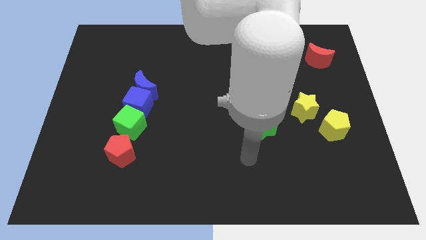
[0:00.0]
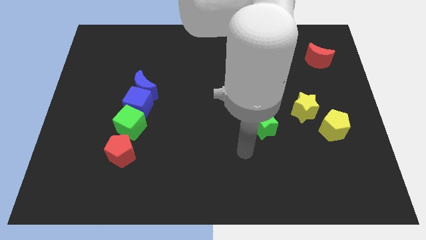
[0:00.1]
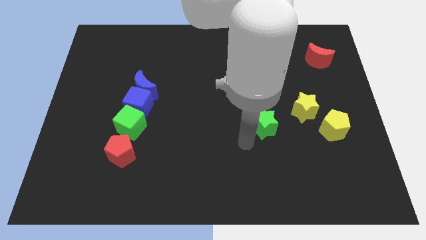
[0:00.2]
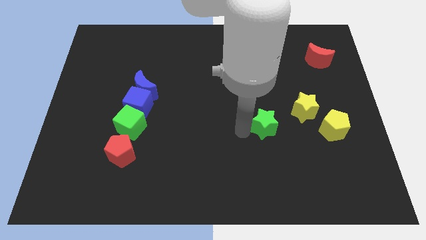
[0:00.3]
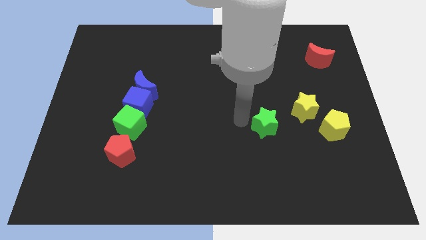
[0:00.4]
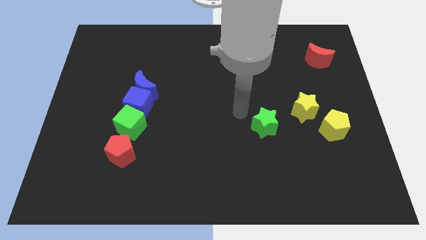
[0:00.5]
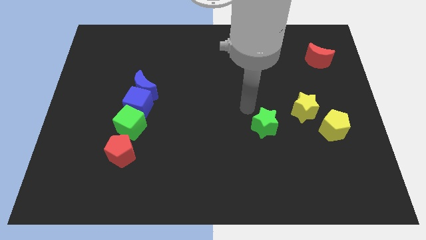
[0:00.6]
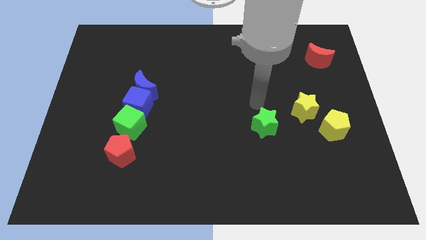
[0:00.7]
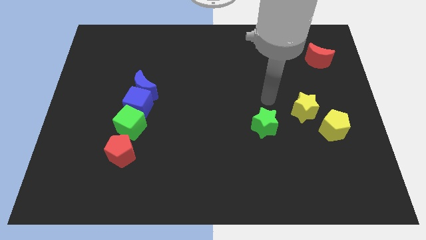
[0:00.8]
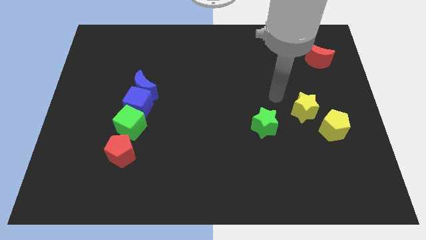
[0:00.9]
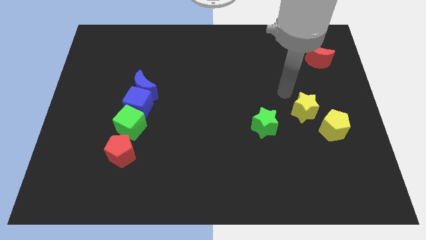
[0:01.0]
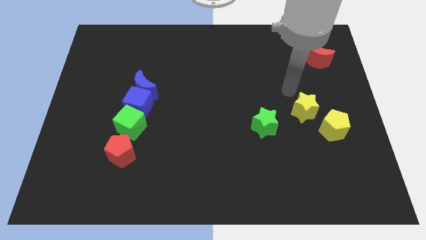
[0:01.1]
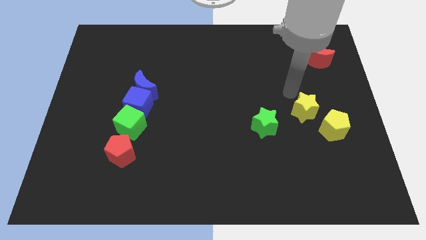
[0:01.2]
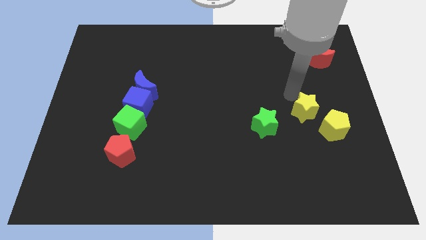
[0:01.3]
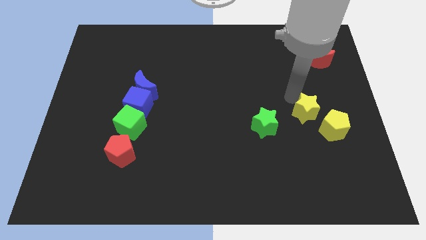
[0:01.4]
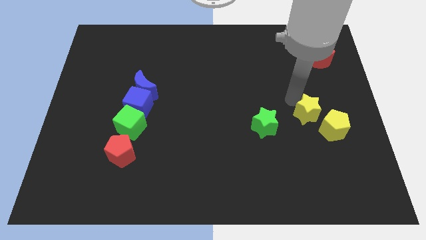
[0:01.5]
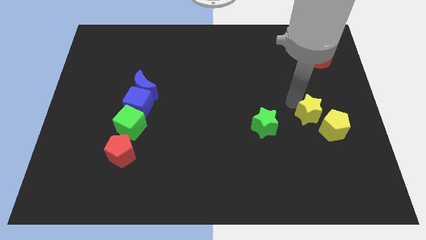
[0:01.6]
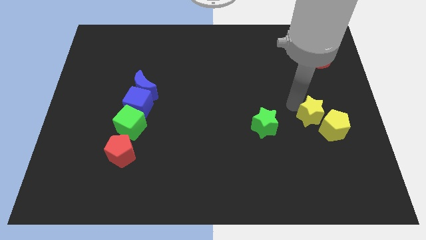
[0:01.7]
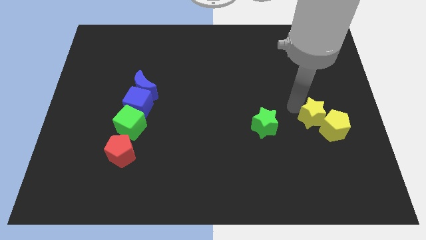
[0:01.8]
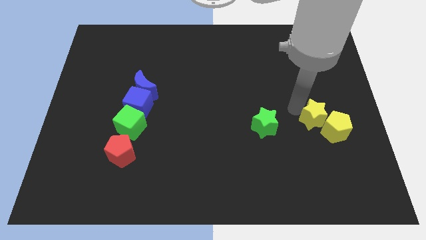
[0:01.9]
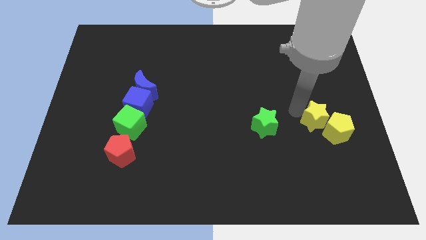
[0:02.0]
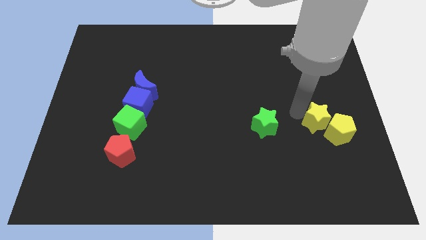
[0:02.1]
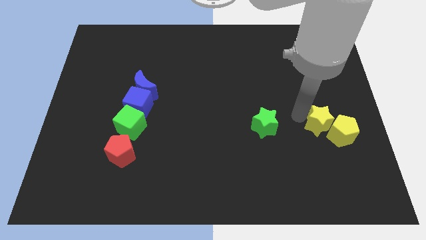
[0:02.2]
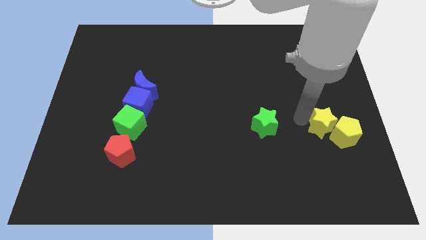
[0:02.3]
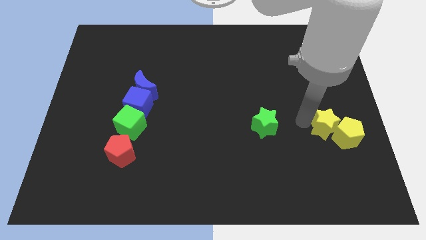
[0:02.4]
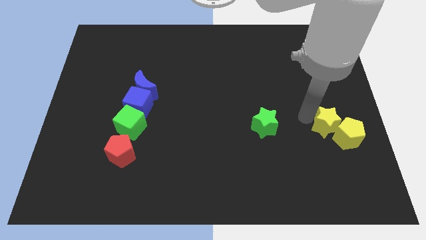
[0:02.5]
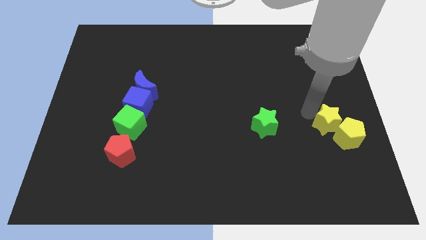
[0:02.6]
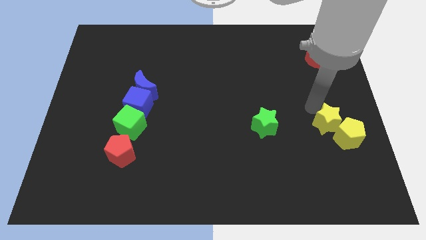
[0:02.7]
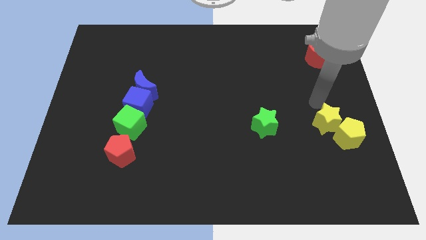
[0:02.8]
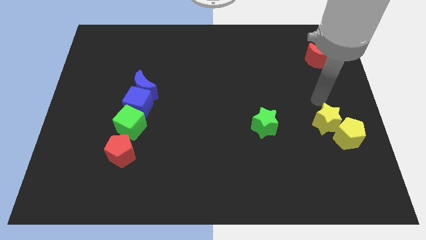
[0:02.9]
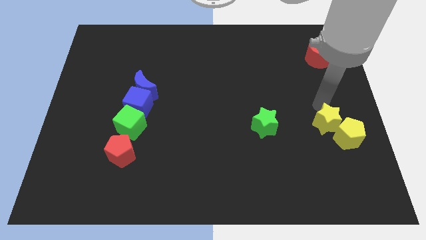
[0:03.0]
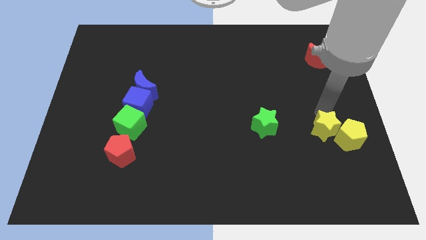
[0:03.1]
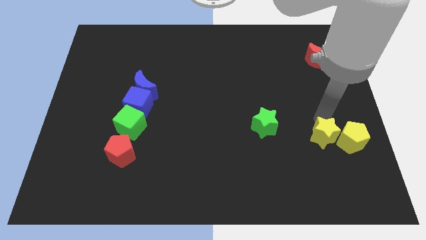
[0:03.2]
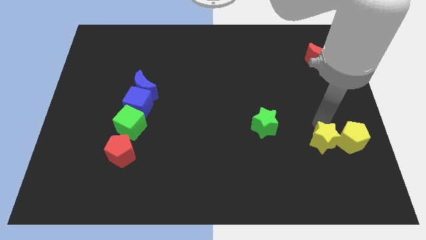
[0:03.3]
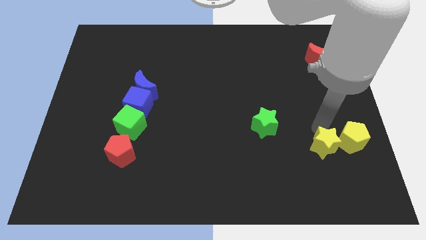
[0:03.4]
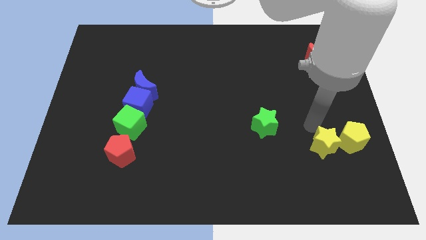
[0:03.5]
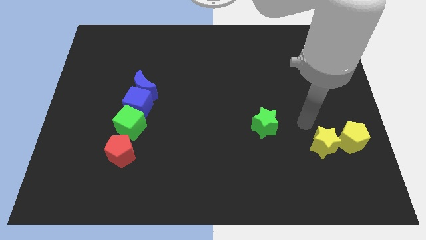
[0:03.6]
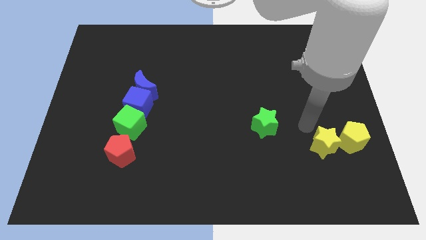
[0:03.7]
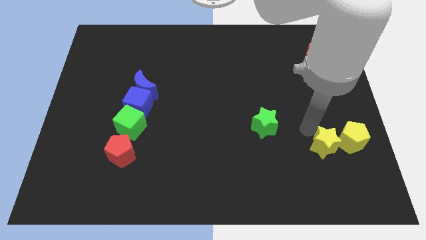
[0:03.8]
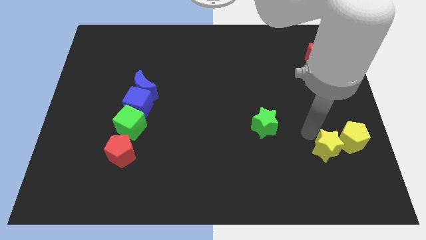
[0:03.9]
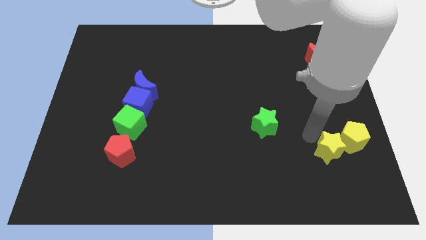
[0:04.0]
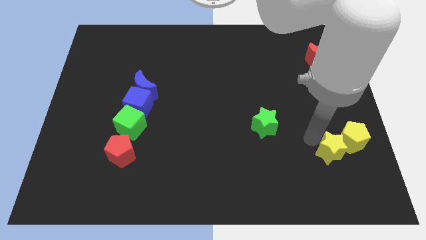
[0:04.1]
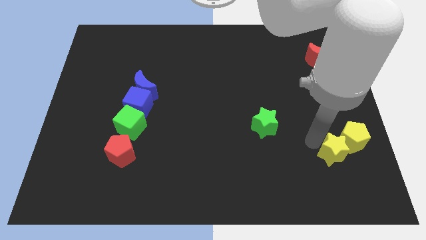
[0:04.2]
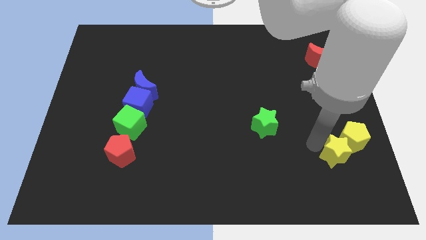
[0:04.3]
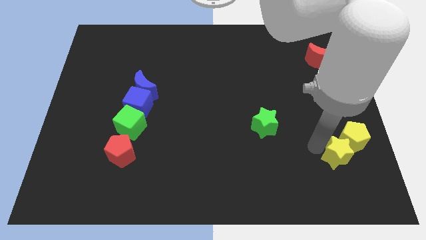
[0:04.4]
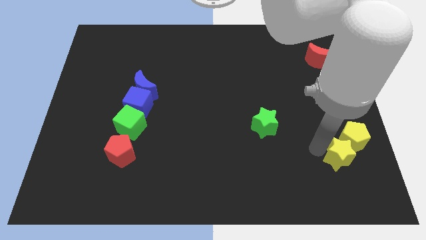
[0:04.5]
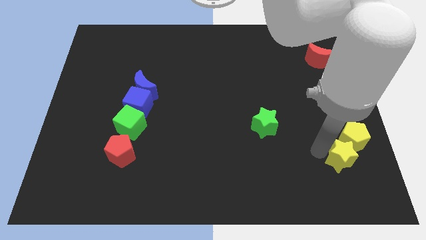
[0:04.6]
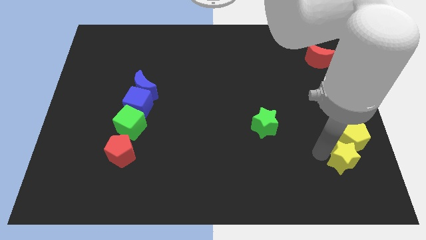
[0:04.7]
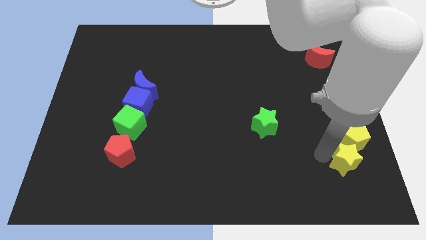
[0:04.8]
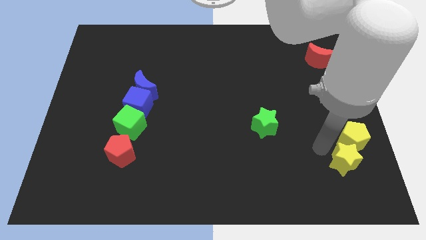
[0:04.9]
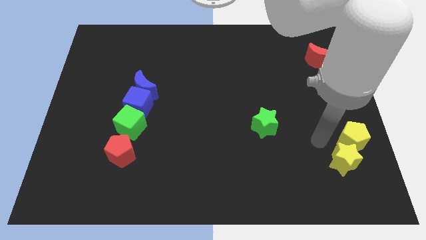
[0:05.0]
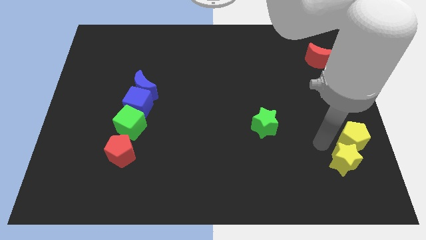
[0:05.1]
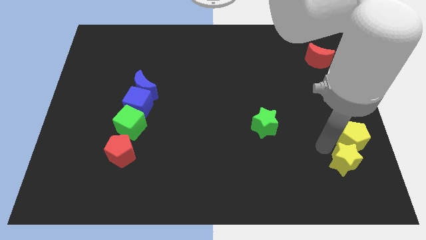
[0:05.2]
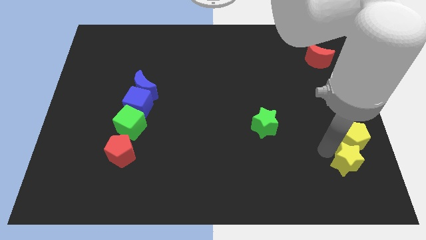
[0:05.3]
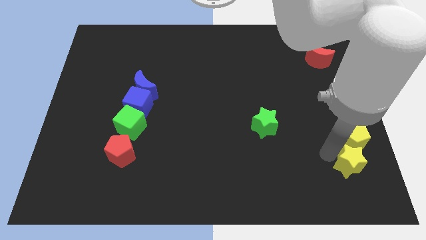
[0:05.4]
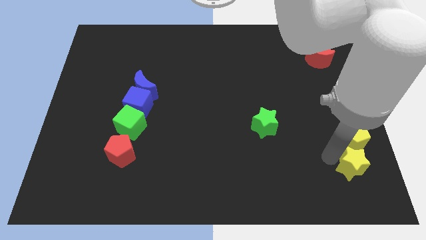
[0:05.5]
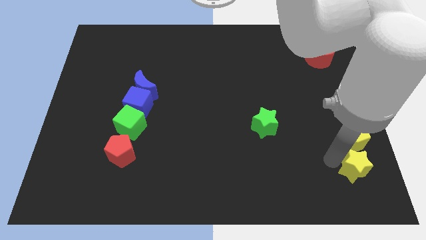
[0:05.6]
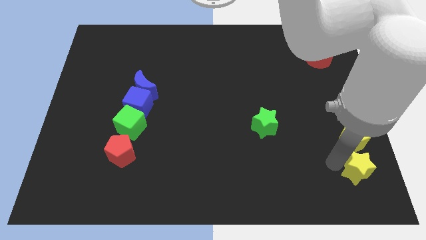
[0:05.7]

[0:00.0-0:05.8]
put the yellow star to the bottom right corner

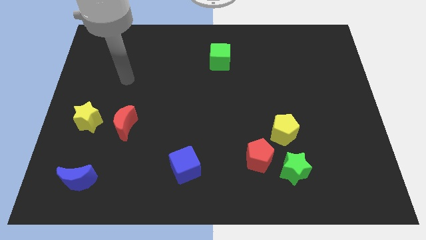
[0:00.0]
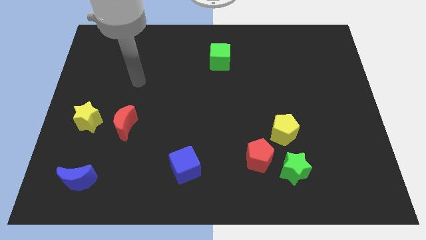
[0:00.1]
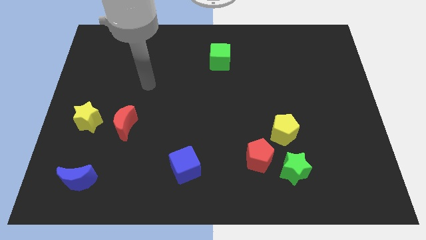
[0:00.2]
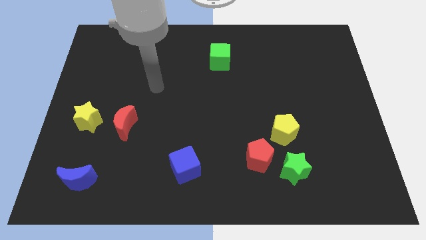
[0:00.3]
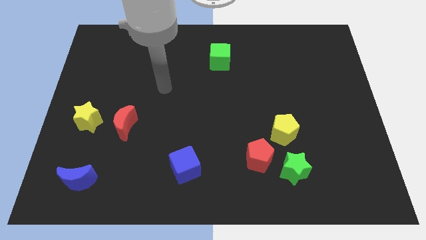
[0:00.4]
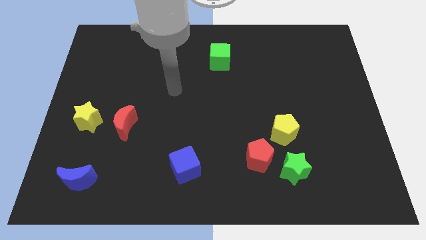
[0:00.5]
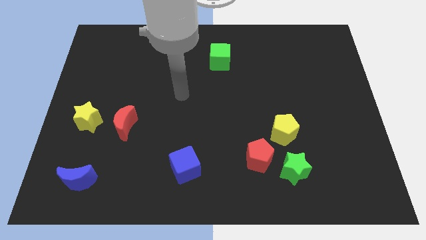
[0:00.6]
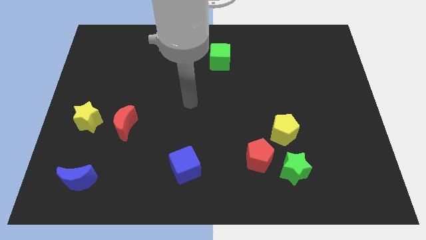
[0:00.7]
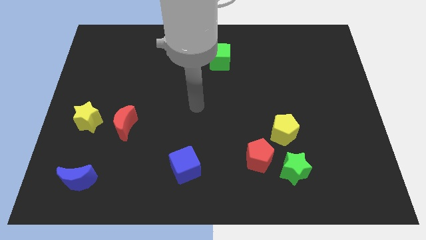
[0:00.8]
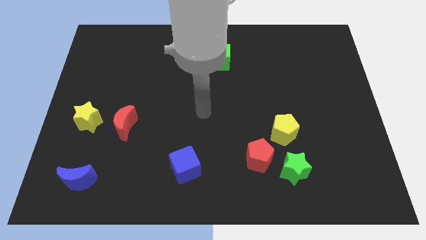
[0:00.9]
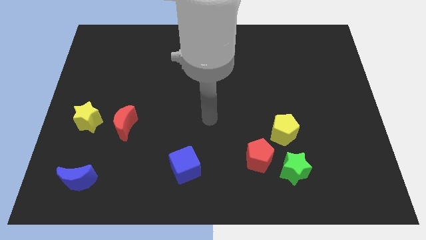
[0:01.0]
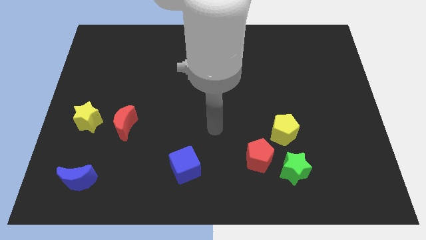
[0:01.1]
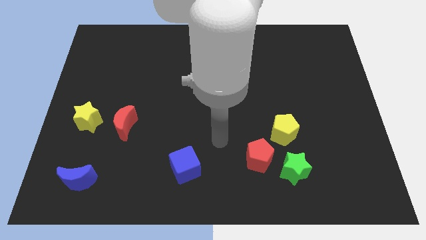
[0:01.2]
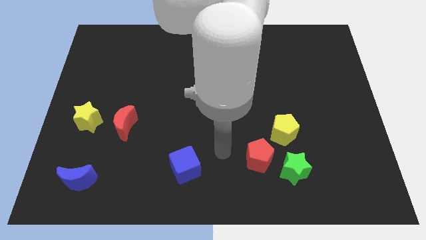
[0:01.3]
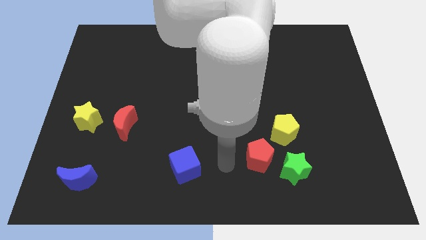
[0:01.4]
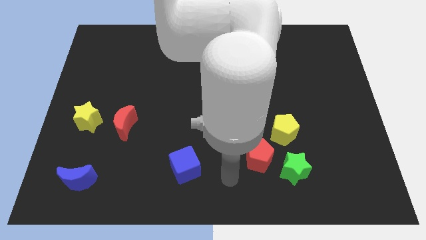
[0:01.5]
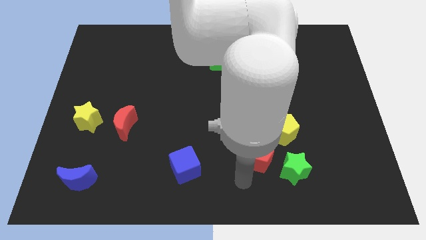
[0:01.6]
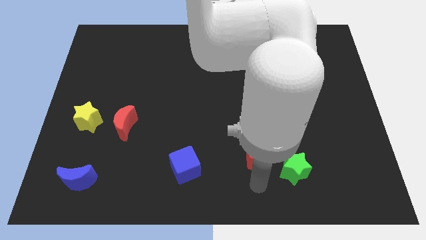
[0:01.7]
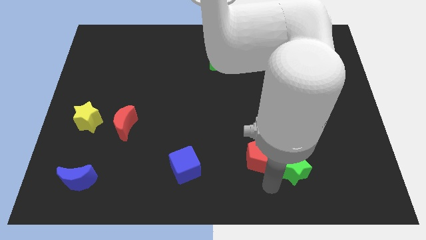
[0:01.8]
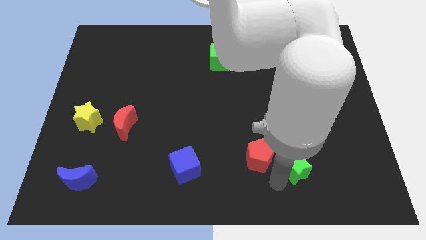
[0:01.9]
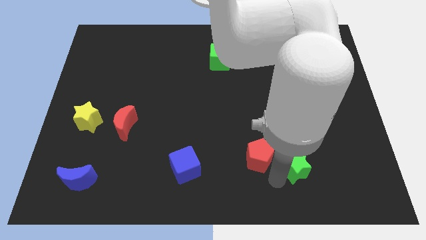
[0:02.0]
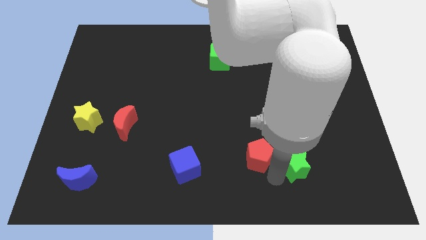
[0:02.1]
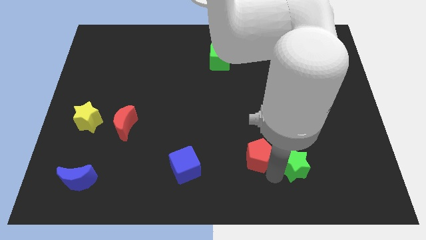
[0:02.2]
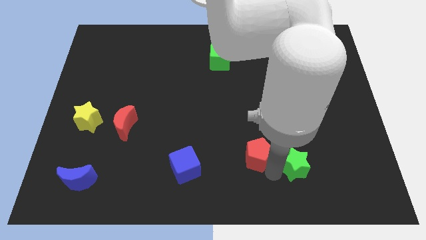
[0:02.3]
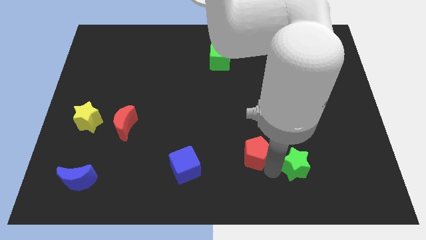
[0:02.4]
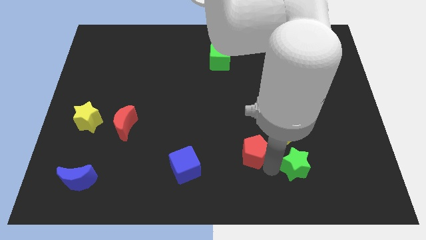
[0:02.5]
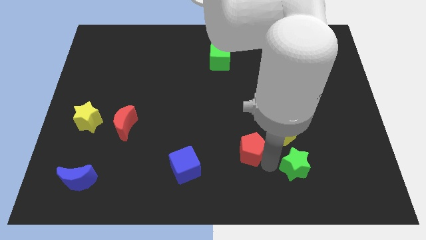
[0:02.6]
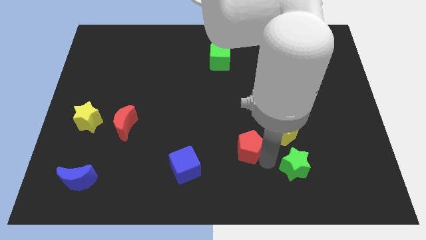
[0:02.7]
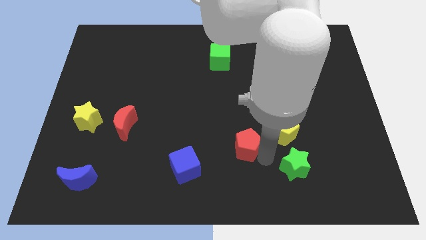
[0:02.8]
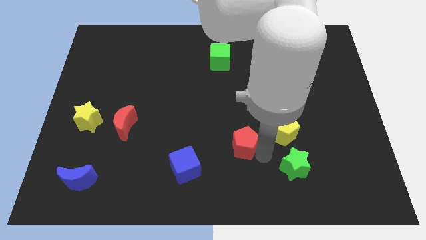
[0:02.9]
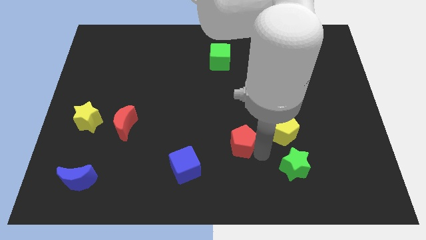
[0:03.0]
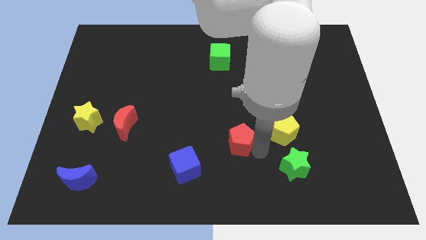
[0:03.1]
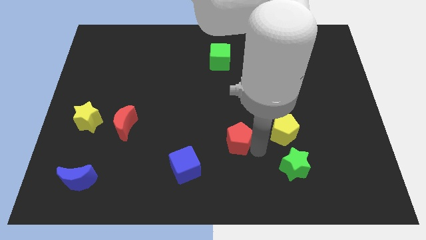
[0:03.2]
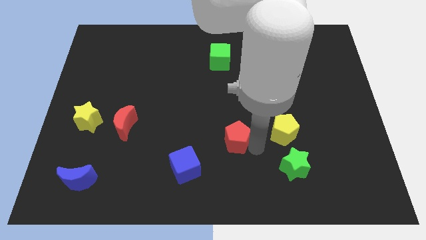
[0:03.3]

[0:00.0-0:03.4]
push the red pentagon to the middle
